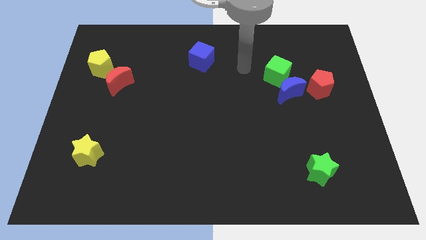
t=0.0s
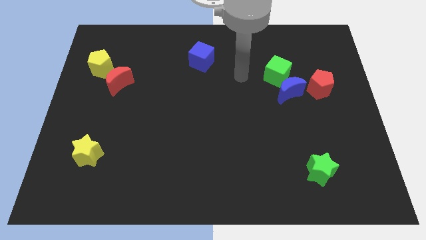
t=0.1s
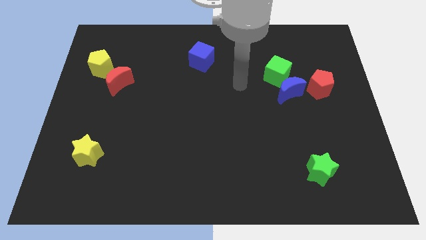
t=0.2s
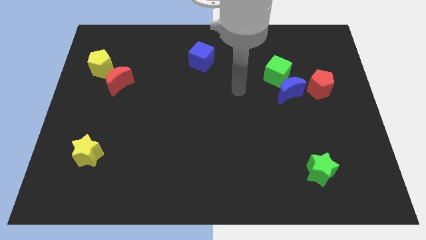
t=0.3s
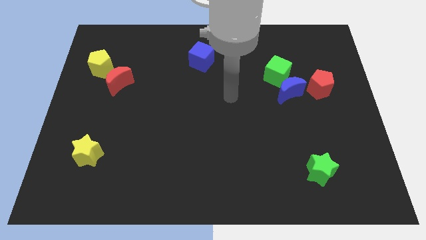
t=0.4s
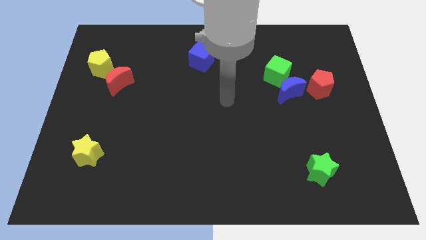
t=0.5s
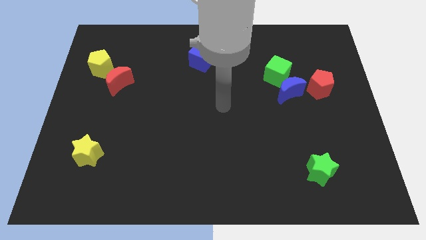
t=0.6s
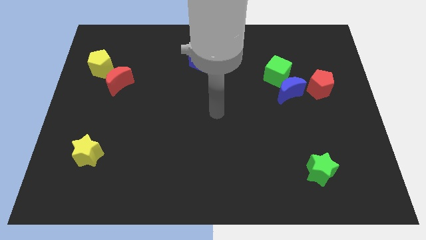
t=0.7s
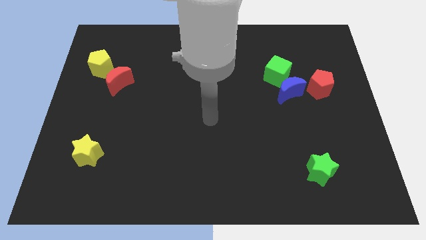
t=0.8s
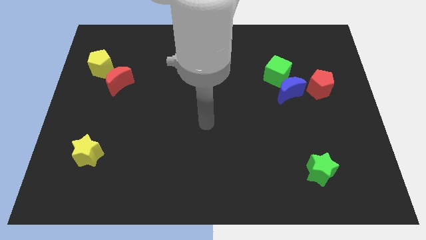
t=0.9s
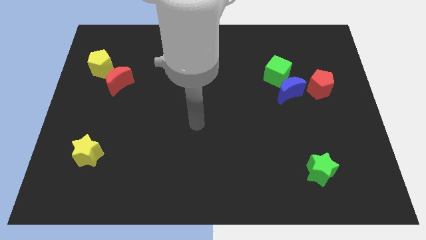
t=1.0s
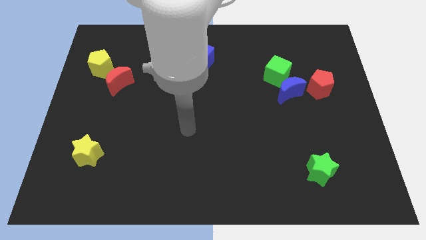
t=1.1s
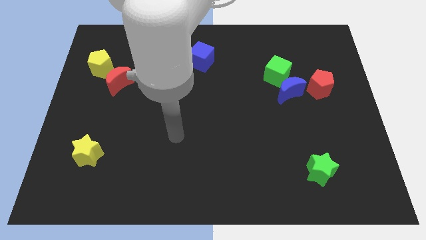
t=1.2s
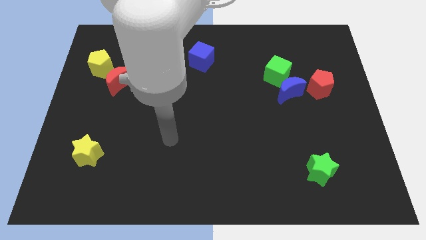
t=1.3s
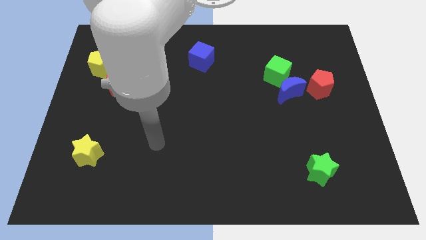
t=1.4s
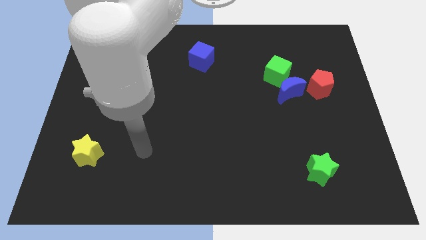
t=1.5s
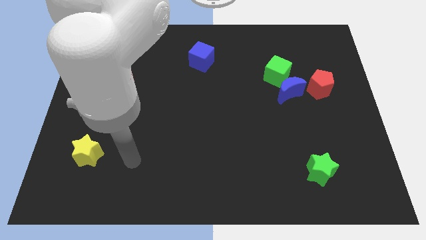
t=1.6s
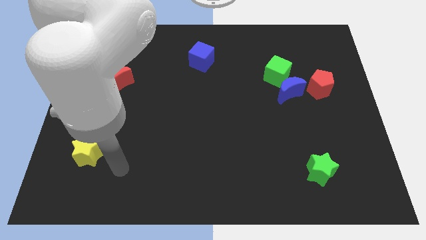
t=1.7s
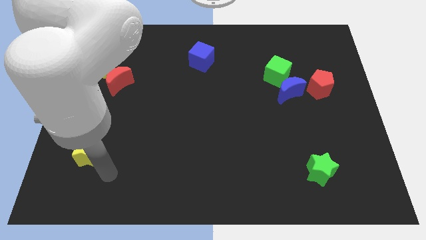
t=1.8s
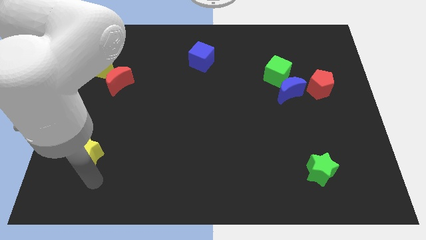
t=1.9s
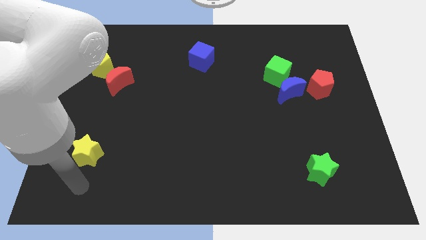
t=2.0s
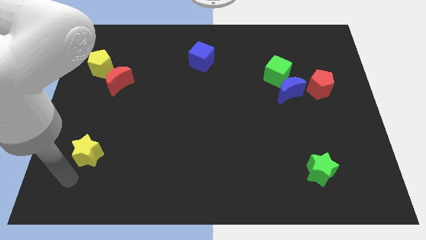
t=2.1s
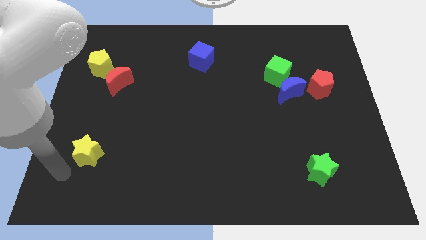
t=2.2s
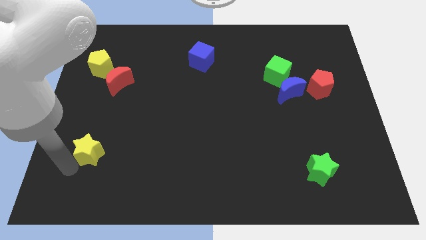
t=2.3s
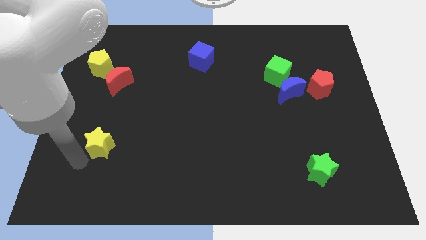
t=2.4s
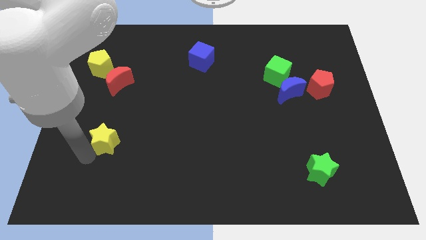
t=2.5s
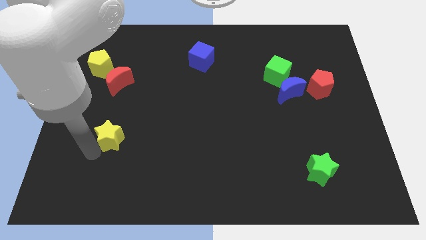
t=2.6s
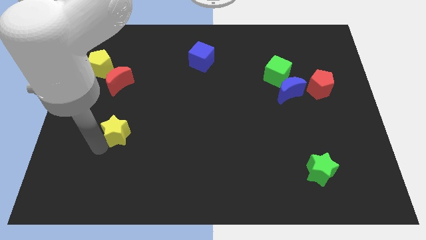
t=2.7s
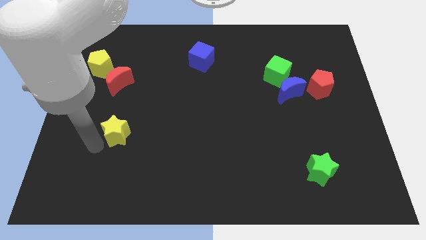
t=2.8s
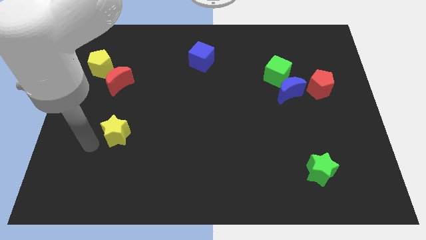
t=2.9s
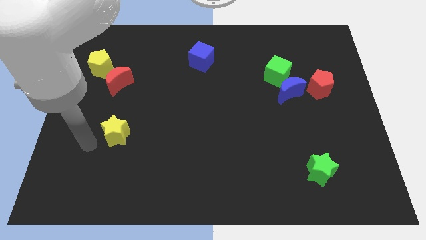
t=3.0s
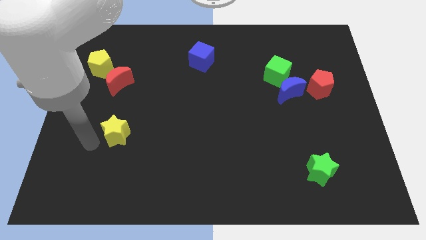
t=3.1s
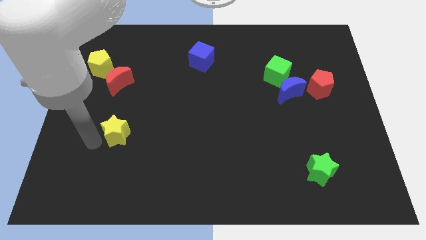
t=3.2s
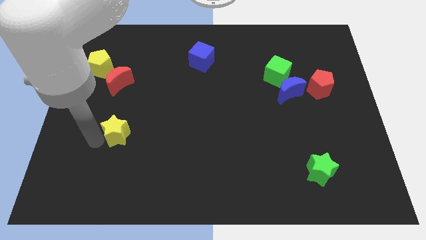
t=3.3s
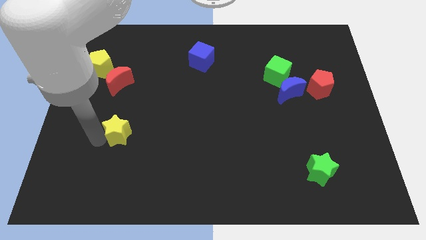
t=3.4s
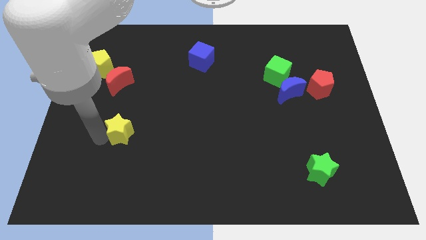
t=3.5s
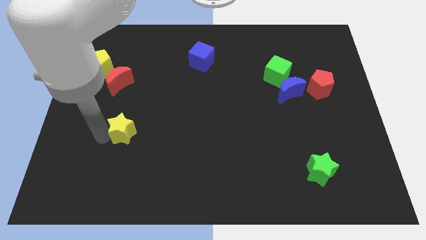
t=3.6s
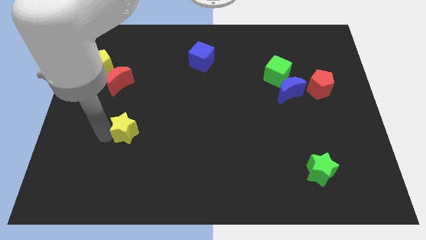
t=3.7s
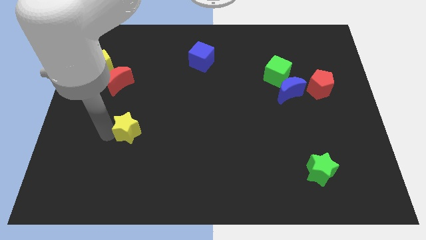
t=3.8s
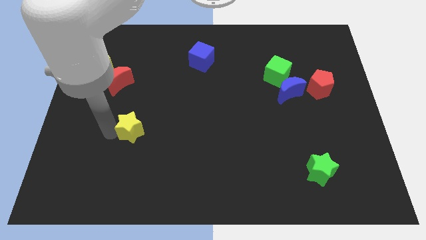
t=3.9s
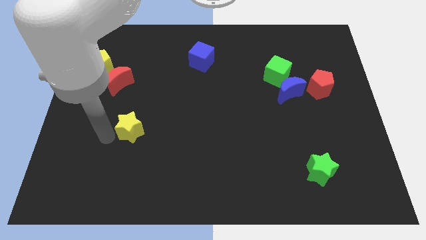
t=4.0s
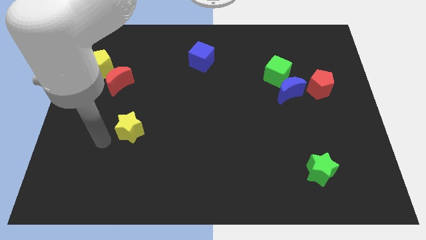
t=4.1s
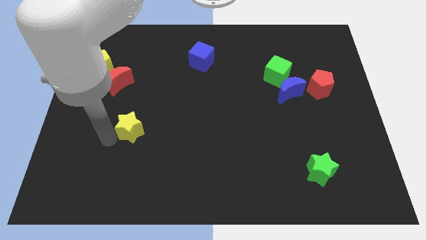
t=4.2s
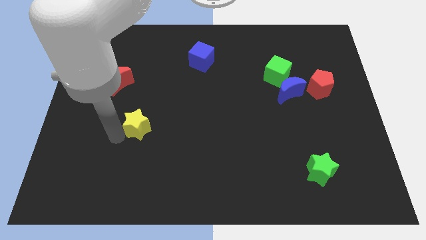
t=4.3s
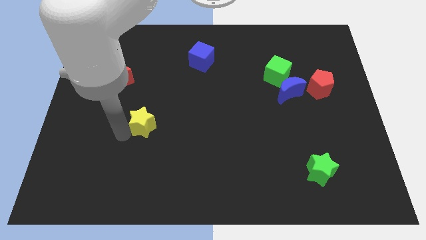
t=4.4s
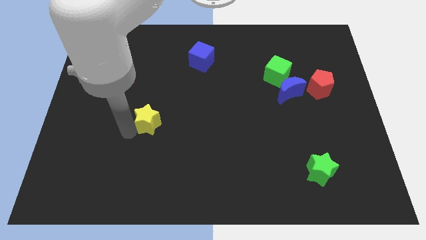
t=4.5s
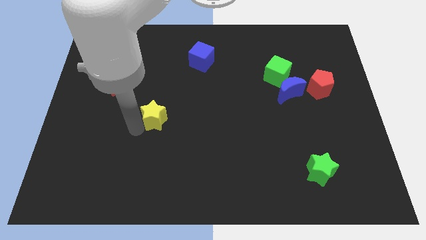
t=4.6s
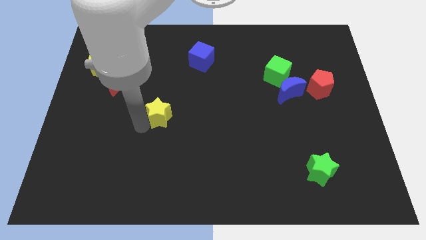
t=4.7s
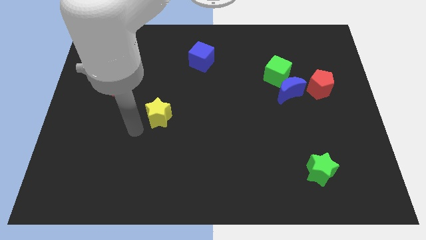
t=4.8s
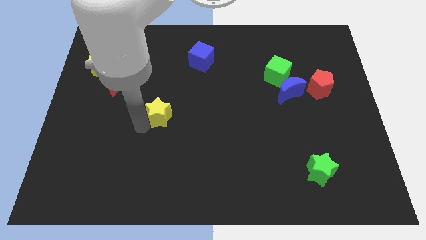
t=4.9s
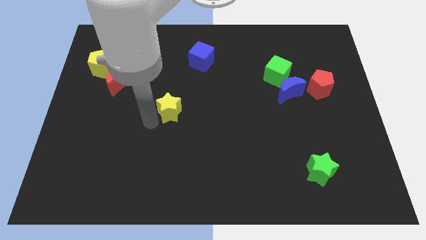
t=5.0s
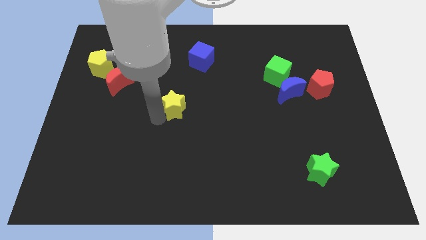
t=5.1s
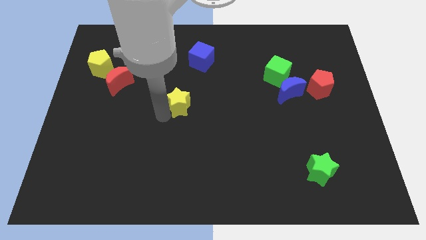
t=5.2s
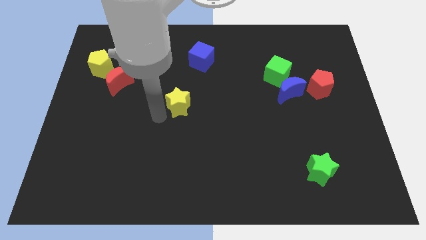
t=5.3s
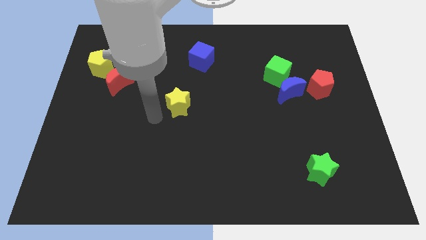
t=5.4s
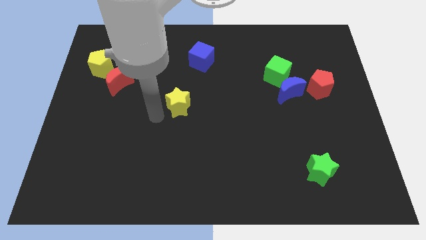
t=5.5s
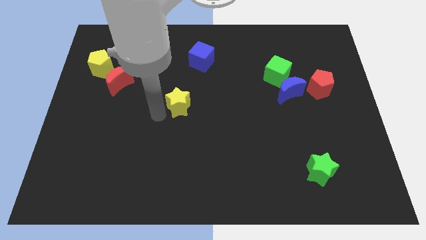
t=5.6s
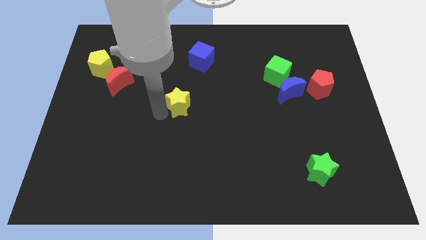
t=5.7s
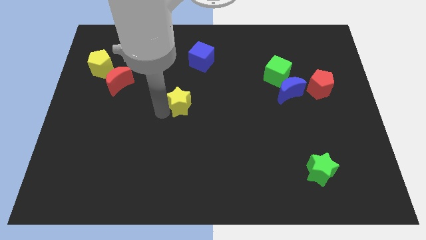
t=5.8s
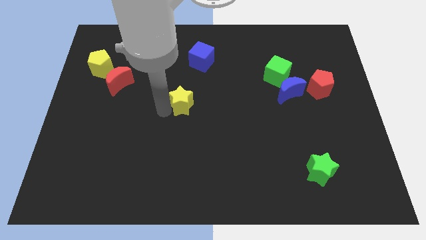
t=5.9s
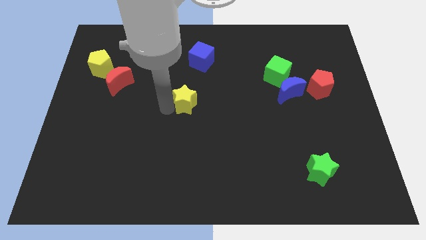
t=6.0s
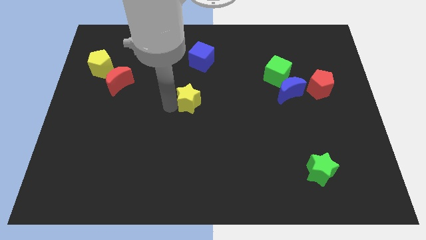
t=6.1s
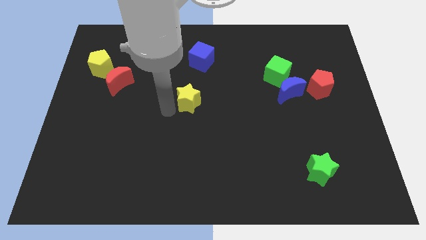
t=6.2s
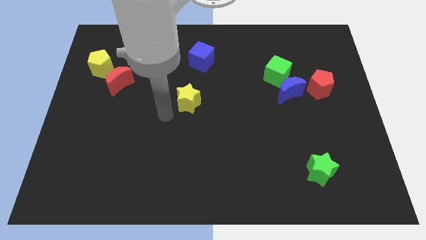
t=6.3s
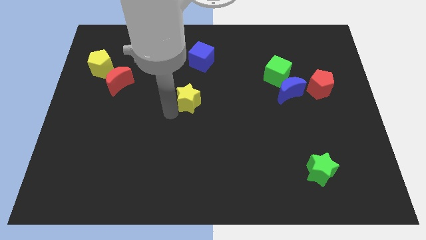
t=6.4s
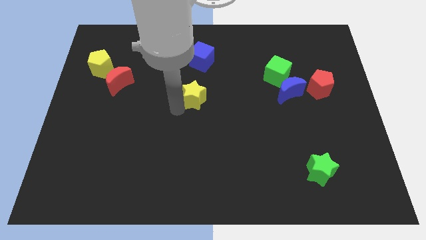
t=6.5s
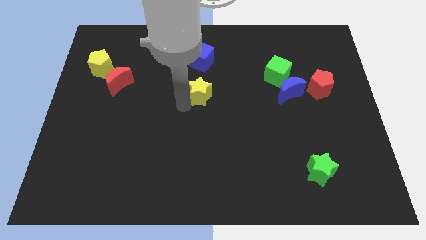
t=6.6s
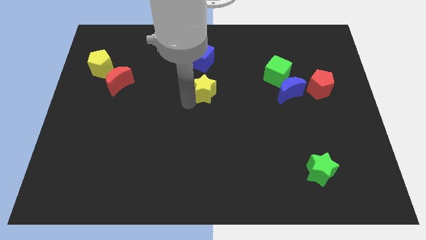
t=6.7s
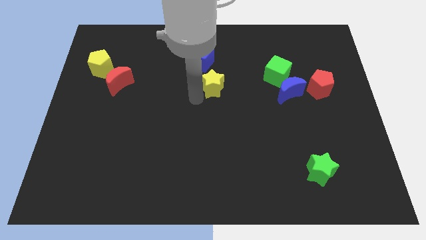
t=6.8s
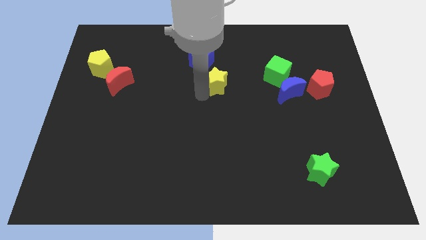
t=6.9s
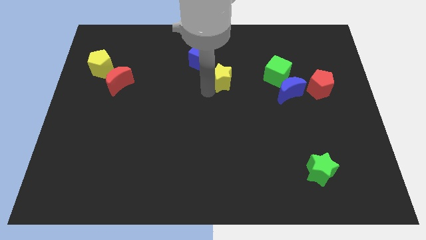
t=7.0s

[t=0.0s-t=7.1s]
move the yellow star just left of the green cube
